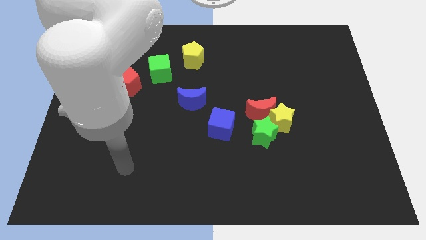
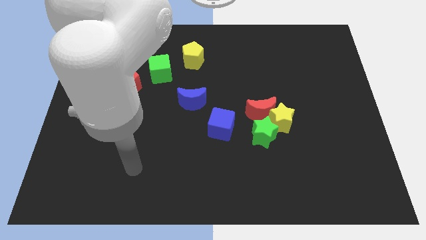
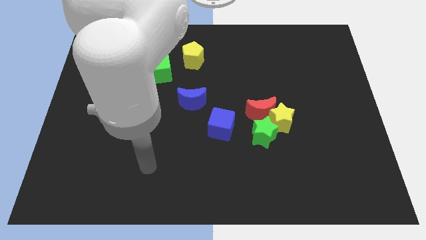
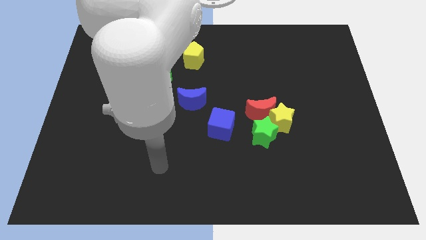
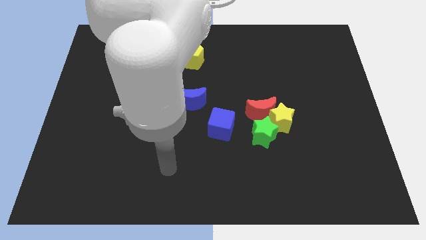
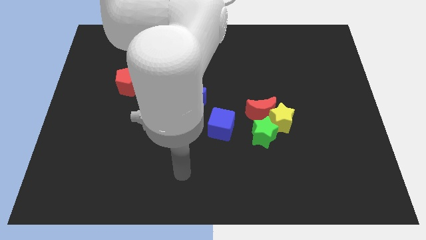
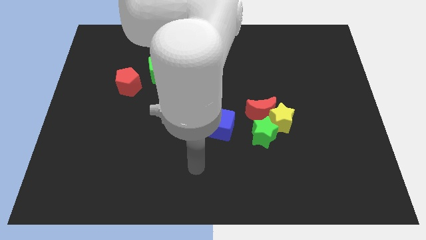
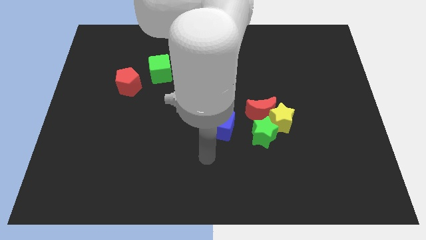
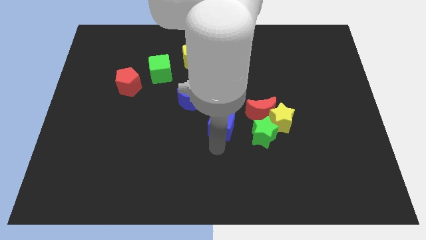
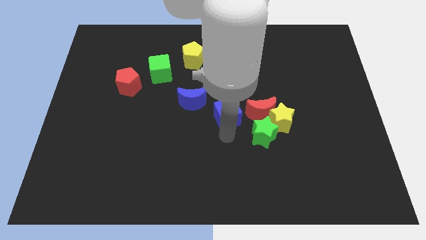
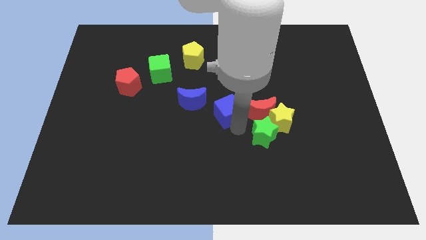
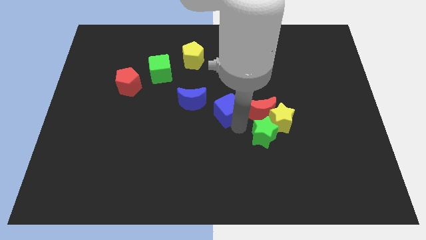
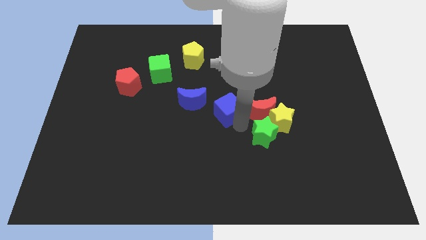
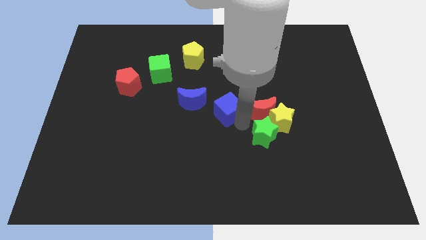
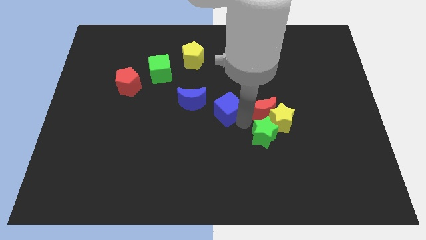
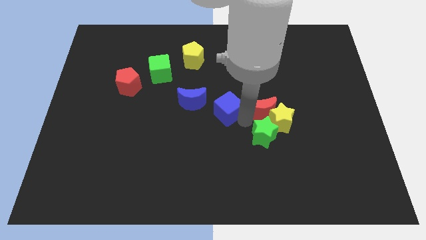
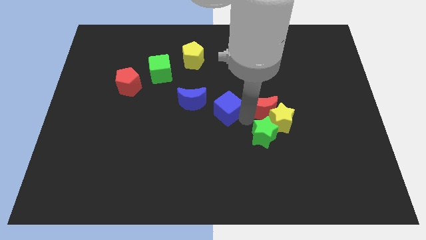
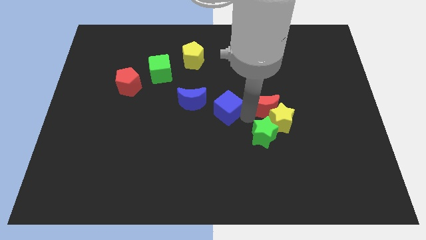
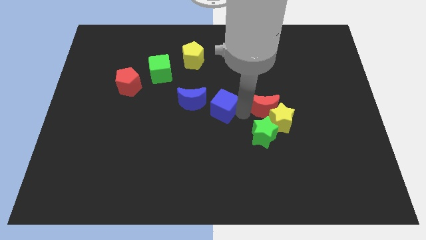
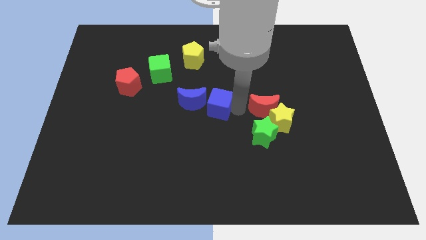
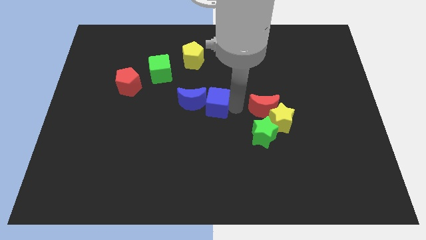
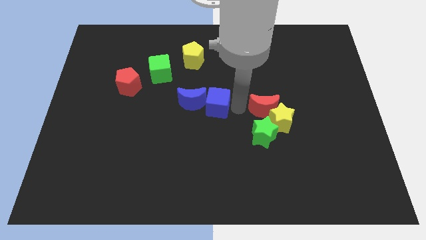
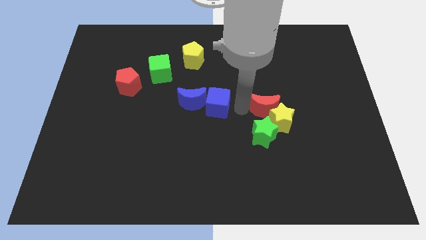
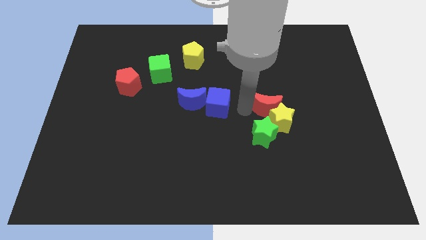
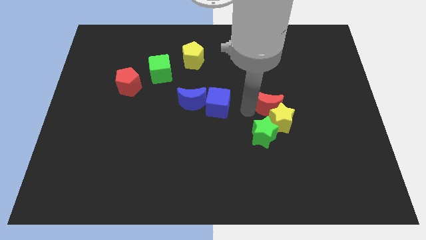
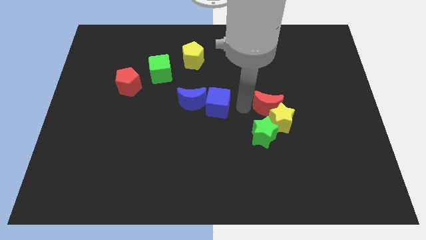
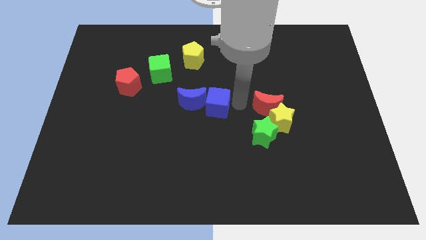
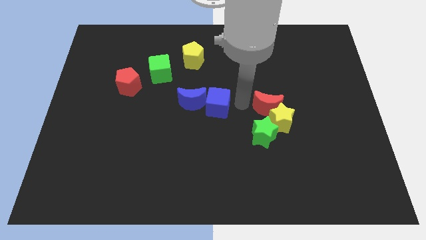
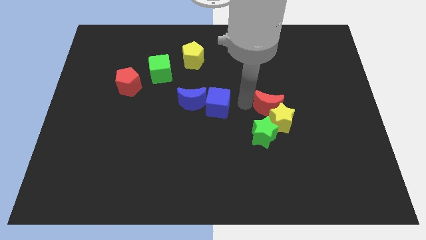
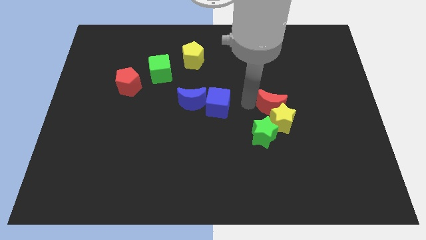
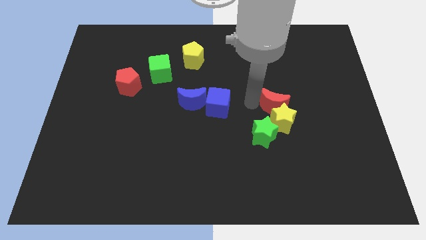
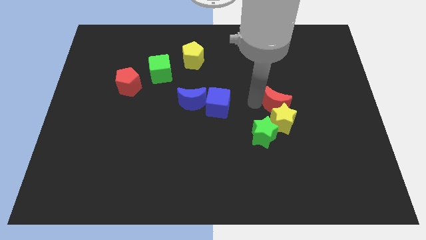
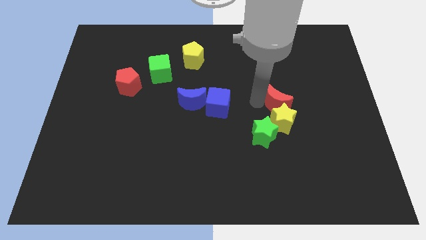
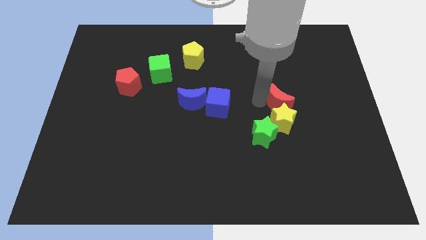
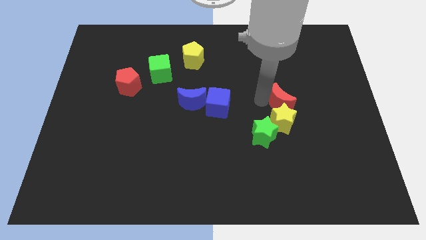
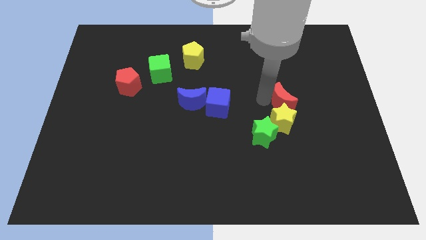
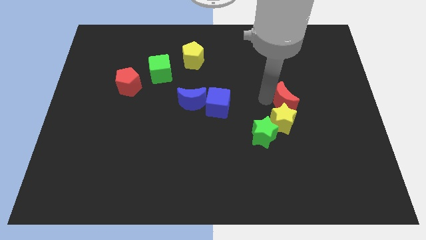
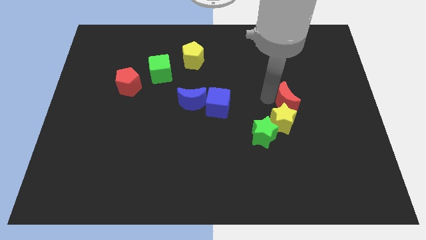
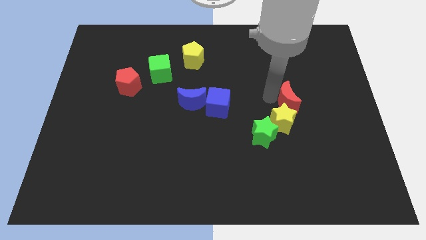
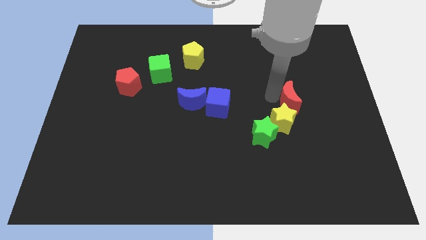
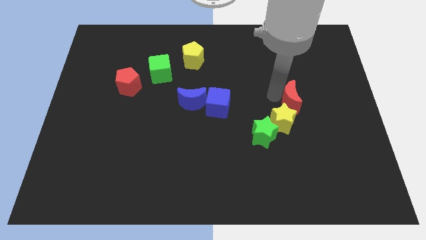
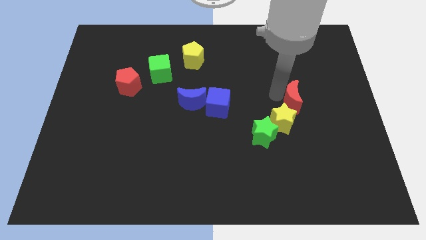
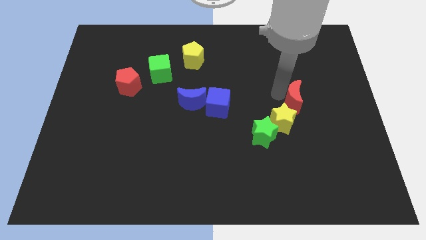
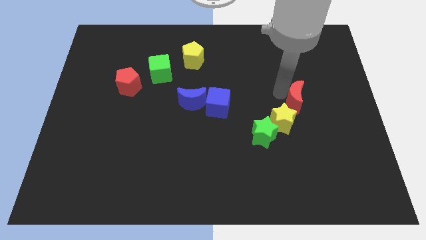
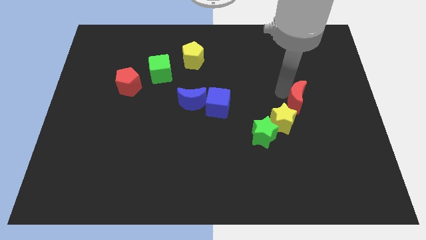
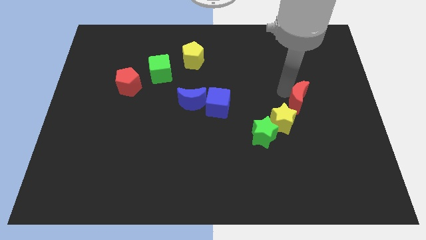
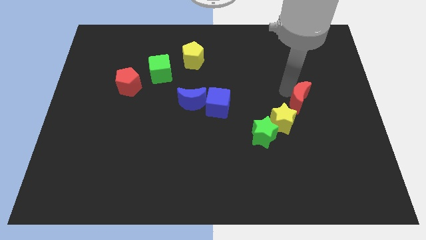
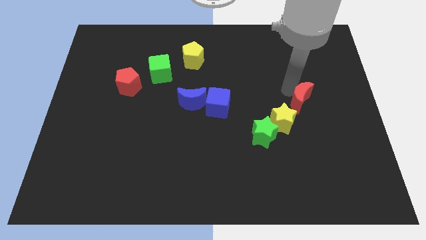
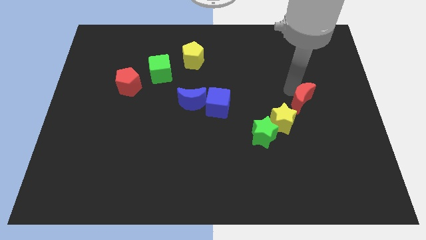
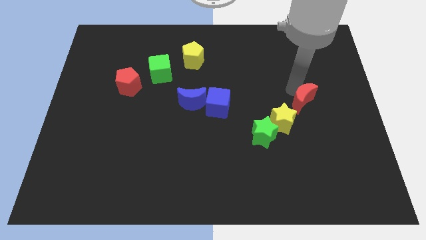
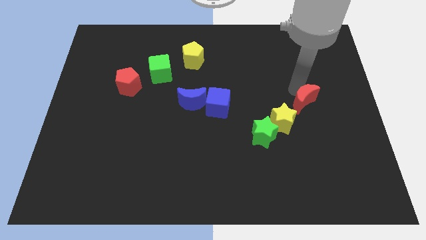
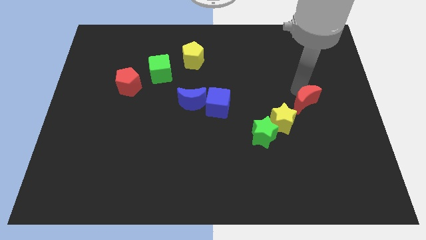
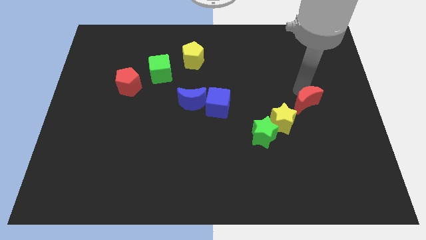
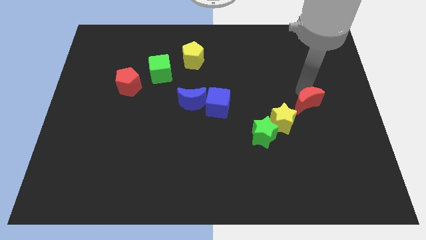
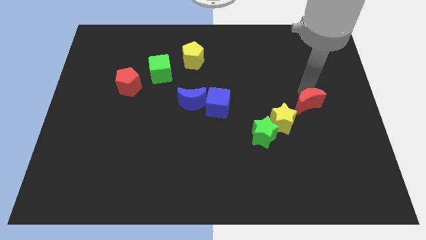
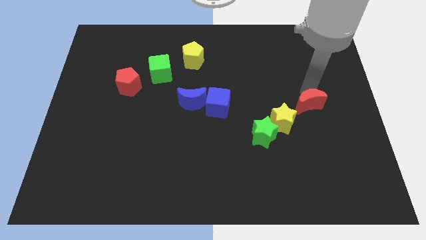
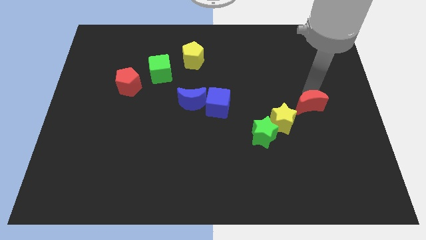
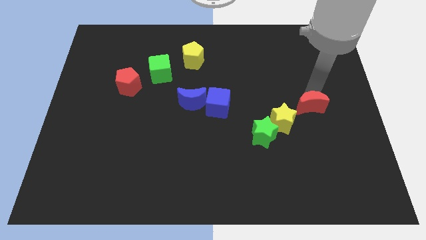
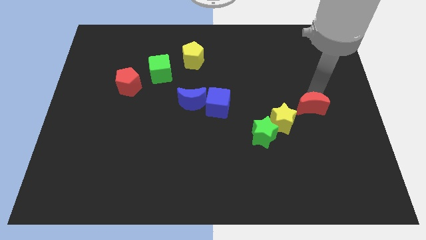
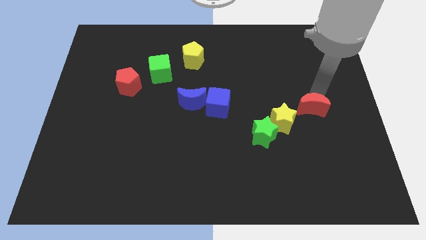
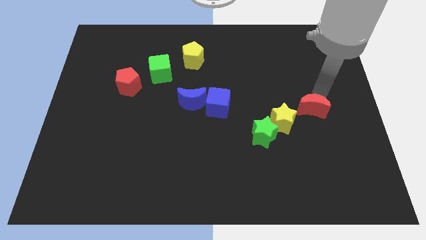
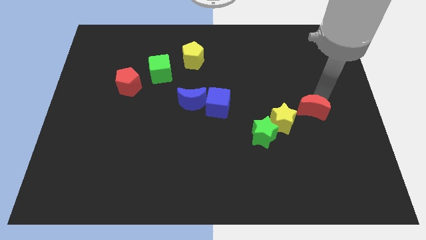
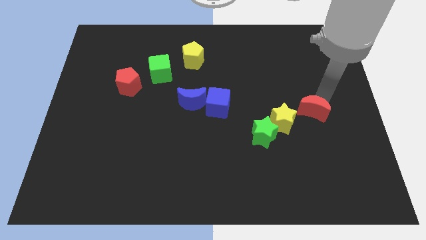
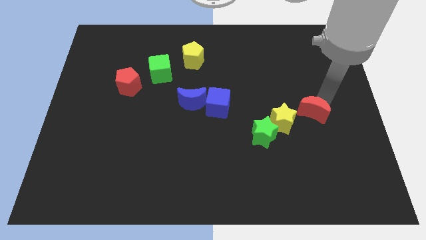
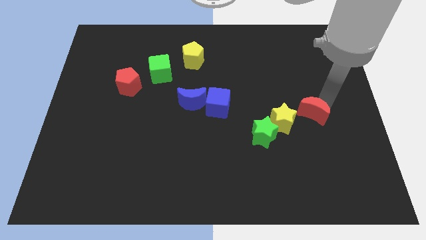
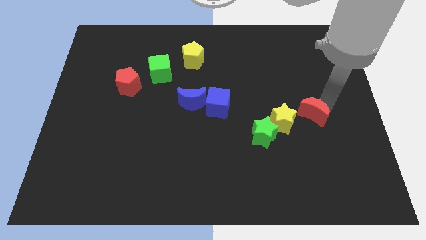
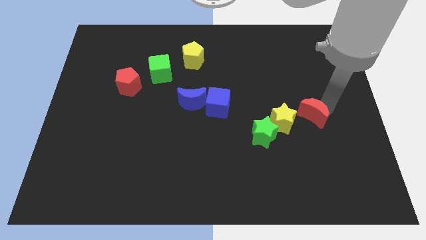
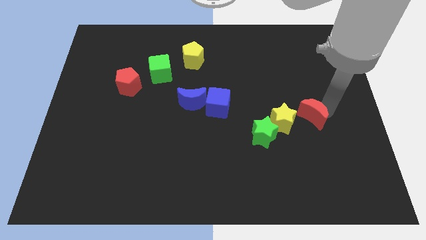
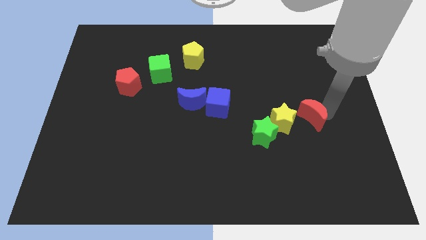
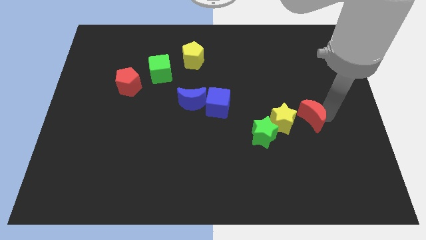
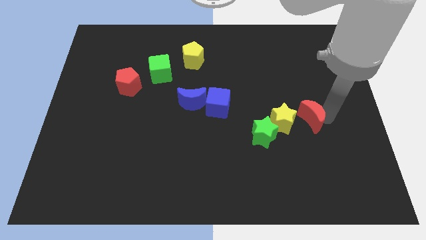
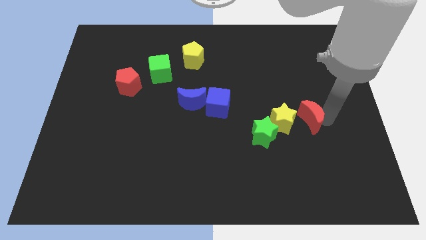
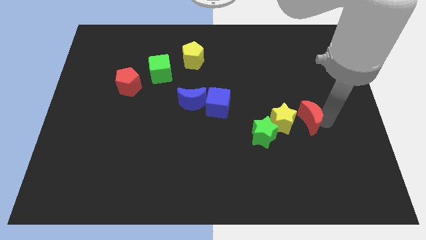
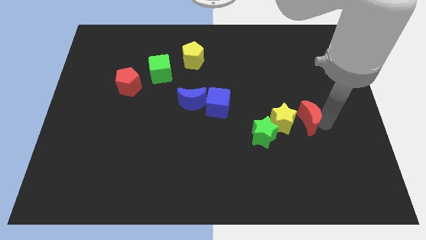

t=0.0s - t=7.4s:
slide the red moon diagonally down and to the right of the yellow star
